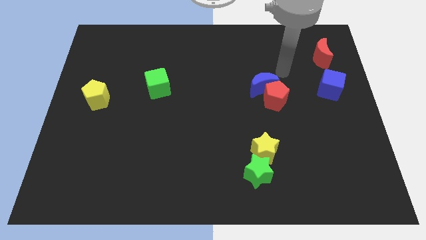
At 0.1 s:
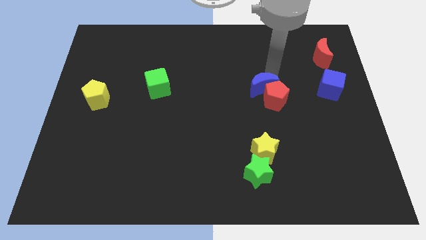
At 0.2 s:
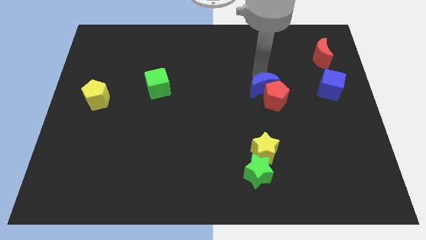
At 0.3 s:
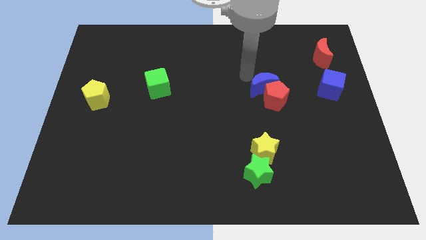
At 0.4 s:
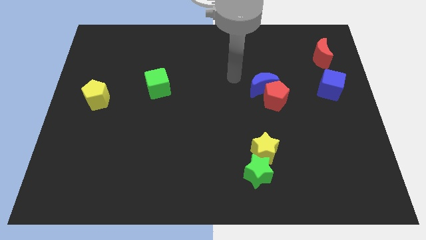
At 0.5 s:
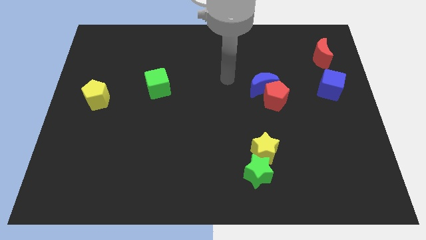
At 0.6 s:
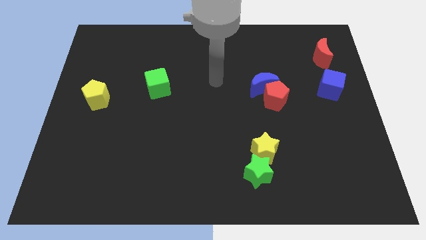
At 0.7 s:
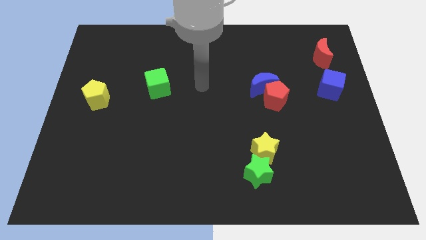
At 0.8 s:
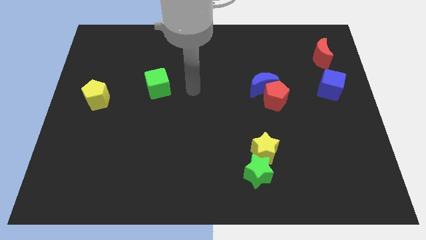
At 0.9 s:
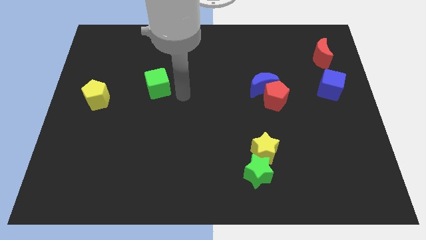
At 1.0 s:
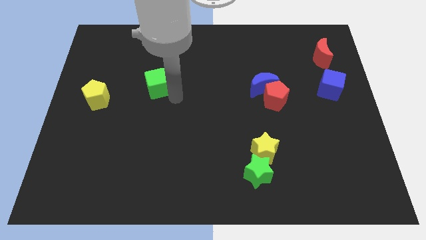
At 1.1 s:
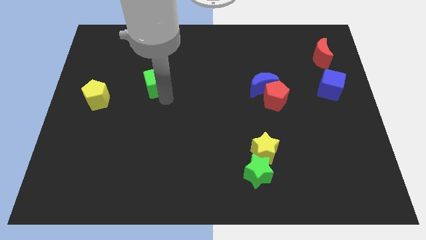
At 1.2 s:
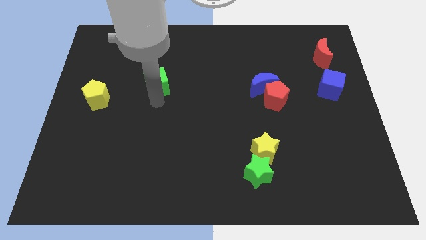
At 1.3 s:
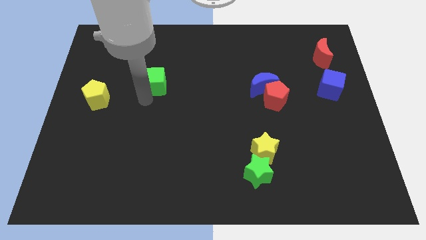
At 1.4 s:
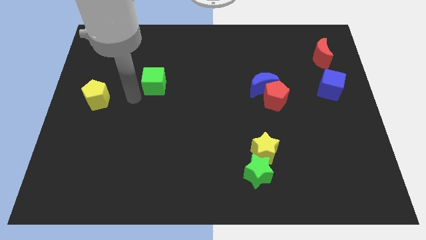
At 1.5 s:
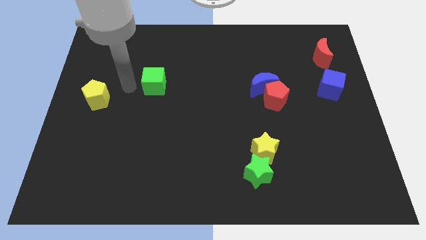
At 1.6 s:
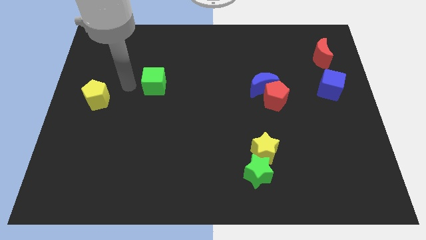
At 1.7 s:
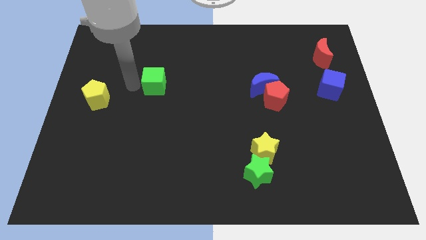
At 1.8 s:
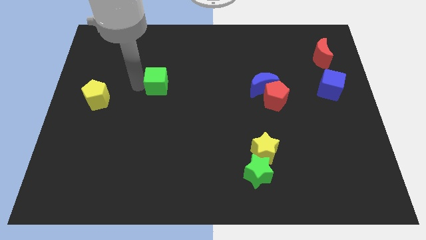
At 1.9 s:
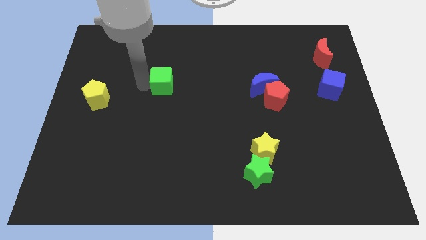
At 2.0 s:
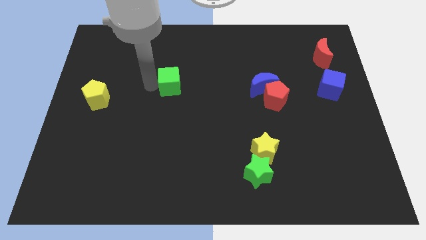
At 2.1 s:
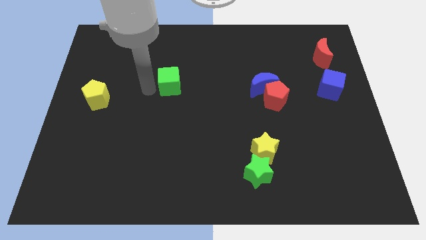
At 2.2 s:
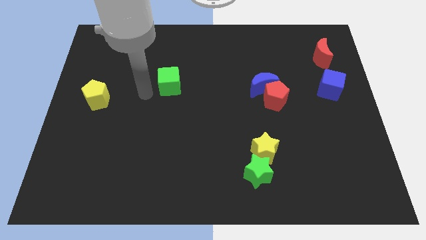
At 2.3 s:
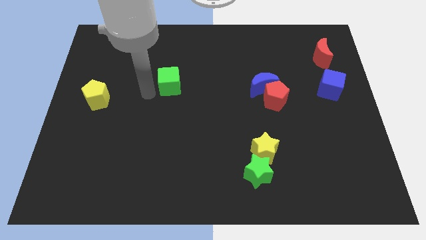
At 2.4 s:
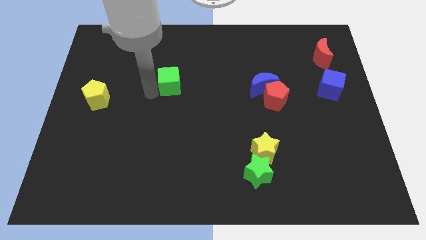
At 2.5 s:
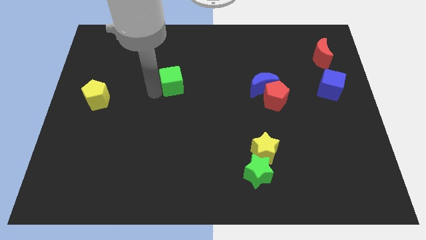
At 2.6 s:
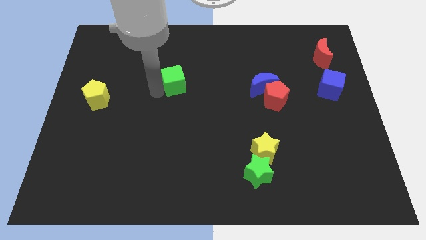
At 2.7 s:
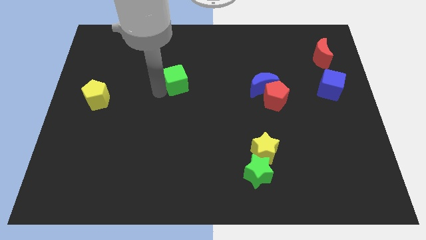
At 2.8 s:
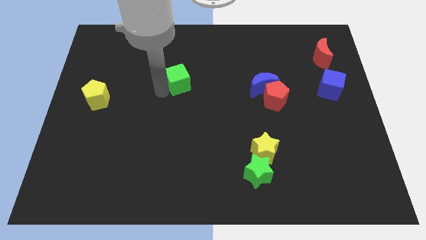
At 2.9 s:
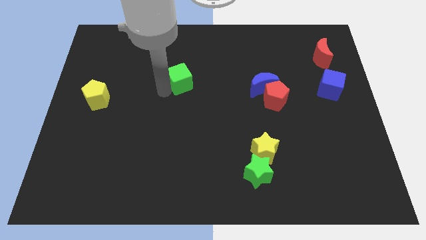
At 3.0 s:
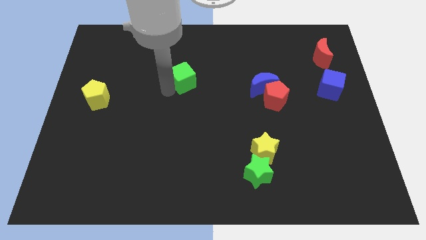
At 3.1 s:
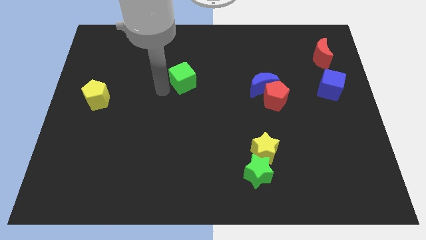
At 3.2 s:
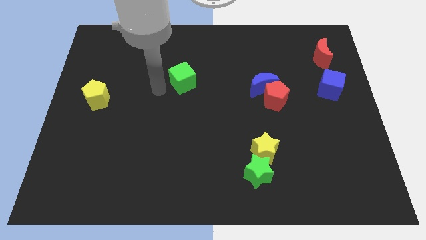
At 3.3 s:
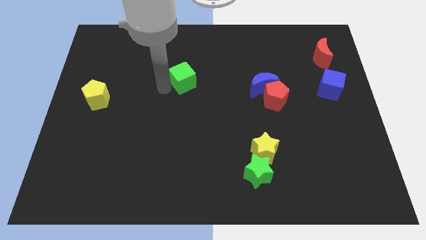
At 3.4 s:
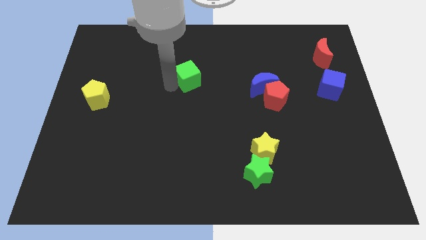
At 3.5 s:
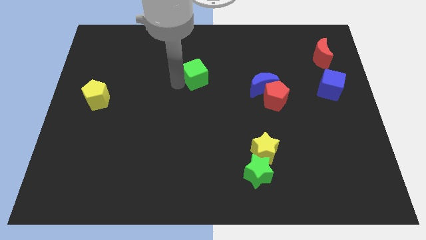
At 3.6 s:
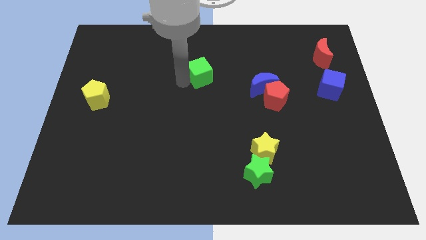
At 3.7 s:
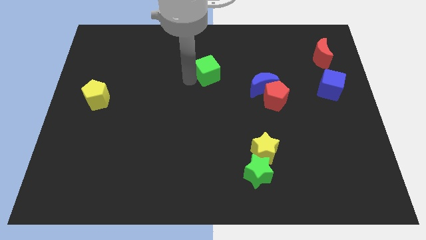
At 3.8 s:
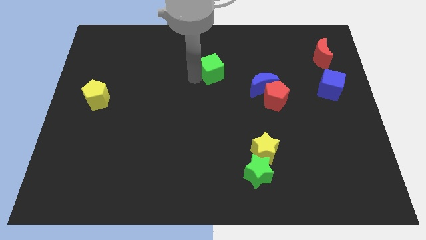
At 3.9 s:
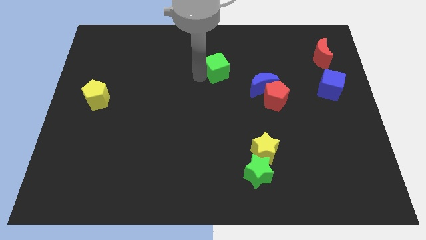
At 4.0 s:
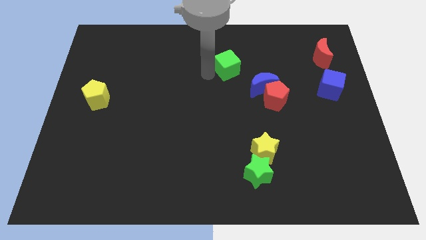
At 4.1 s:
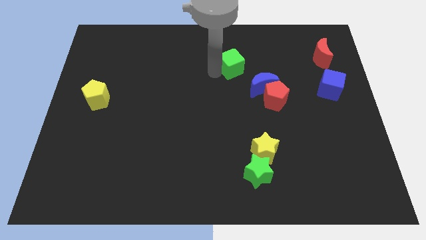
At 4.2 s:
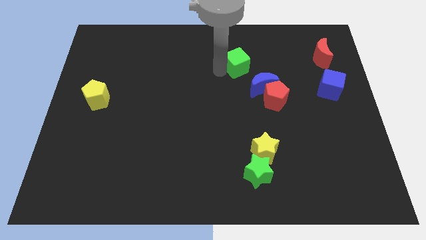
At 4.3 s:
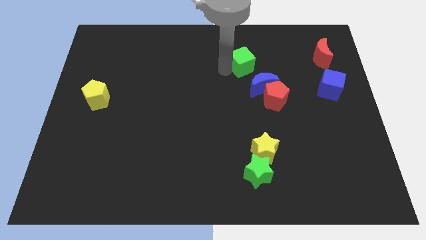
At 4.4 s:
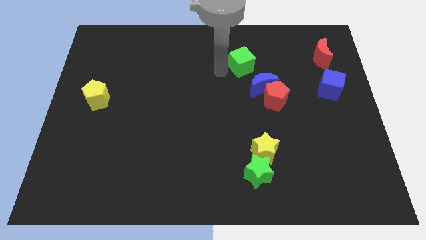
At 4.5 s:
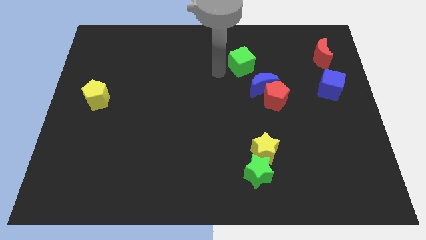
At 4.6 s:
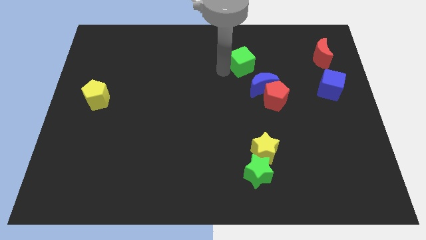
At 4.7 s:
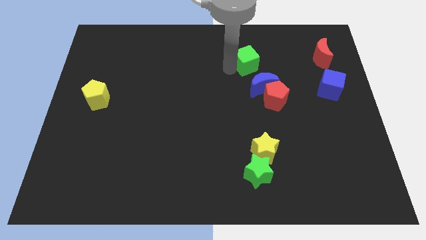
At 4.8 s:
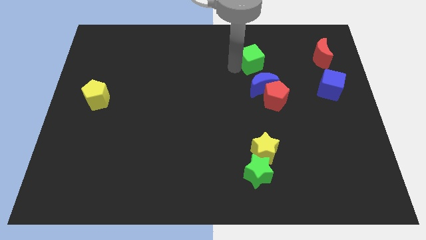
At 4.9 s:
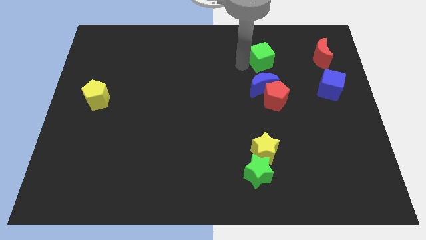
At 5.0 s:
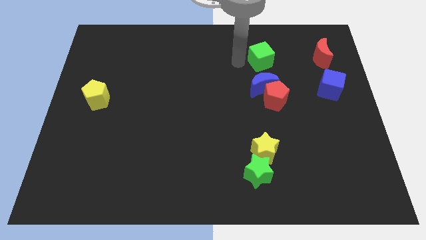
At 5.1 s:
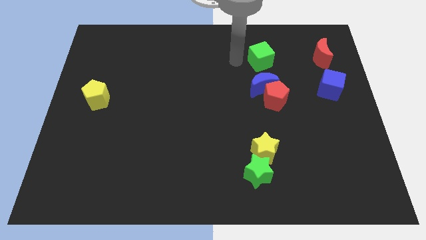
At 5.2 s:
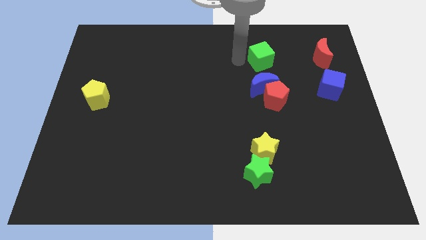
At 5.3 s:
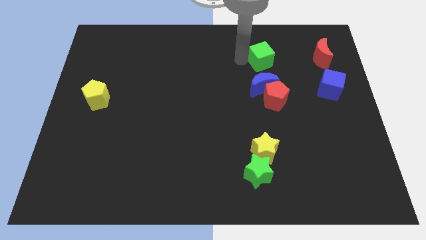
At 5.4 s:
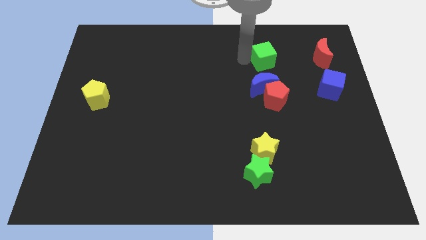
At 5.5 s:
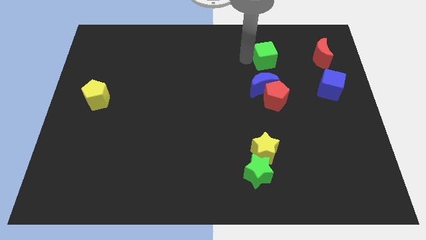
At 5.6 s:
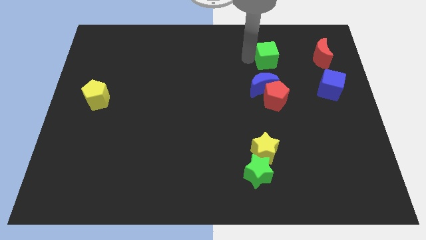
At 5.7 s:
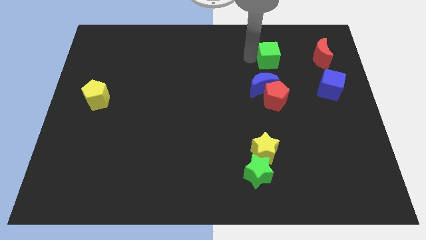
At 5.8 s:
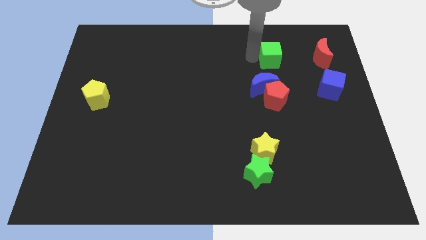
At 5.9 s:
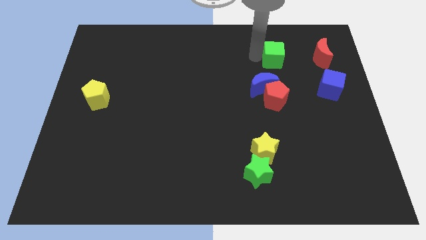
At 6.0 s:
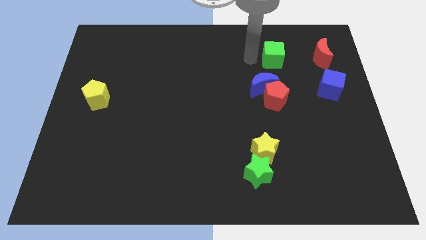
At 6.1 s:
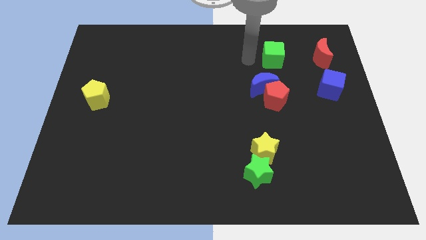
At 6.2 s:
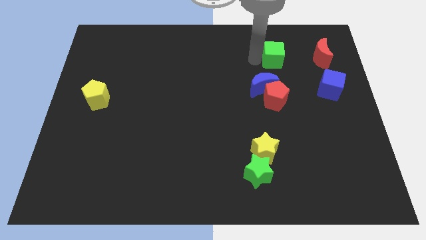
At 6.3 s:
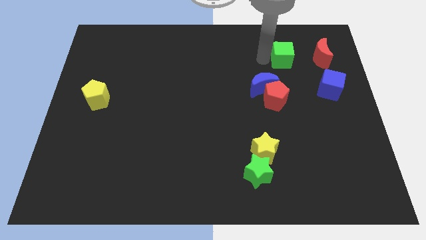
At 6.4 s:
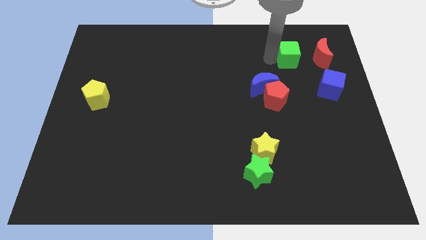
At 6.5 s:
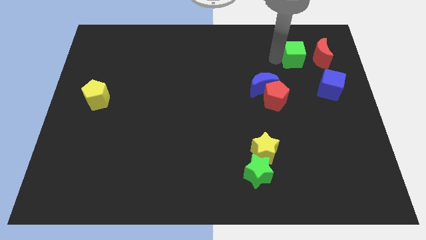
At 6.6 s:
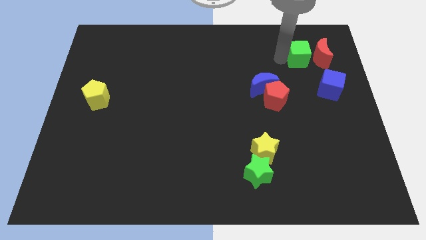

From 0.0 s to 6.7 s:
slide the green cube close to the red moon
